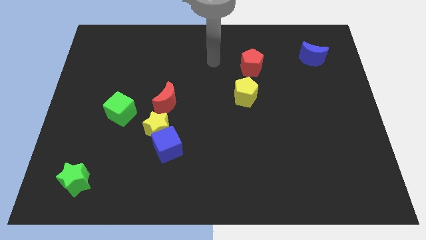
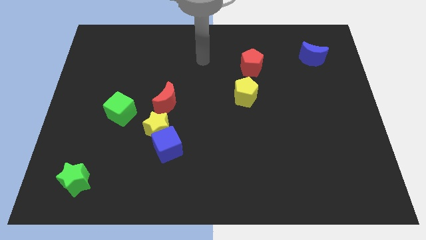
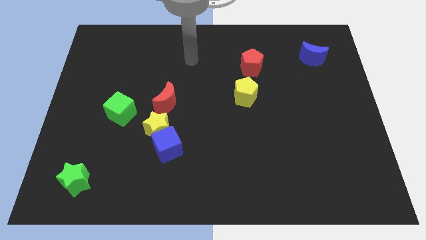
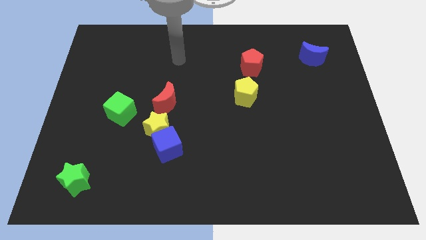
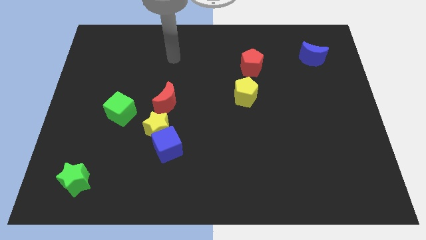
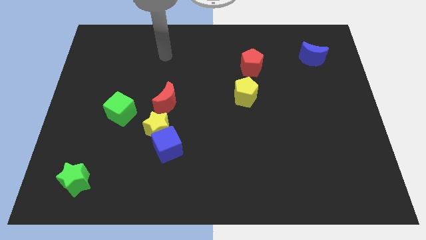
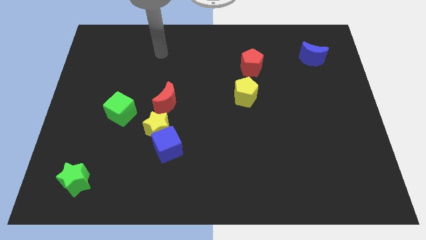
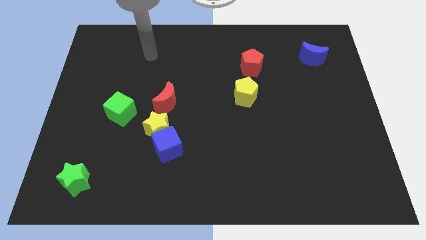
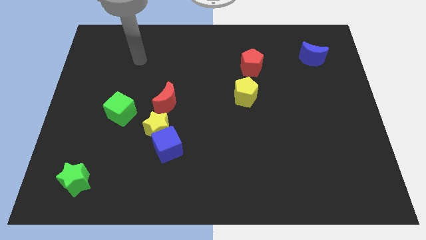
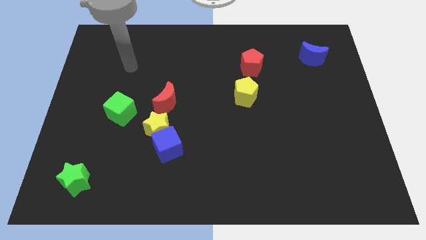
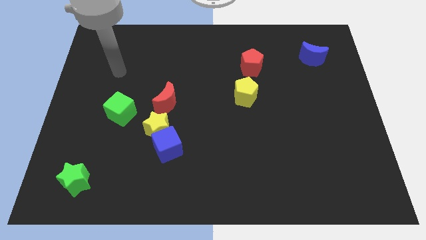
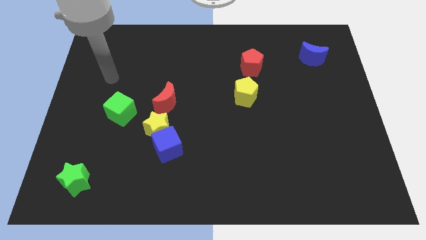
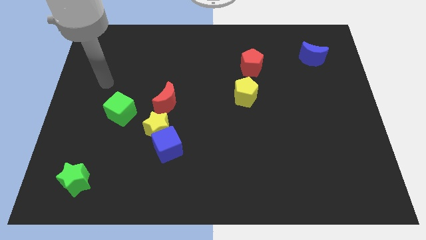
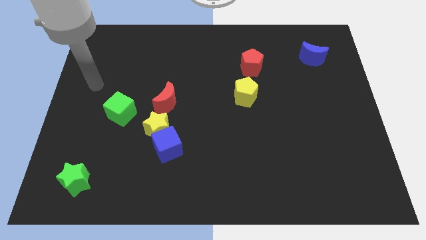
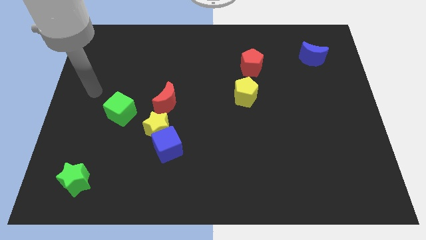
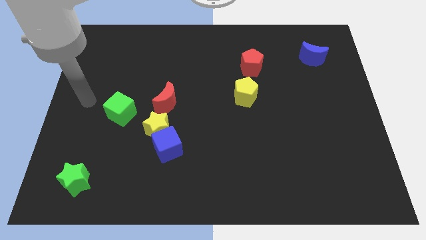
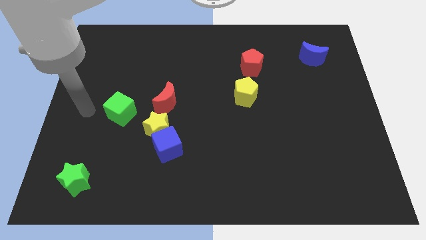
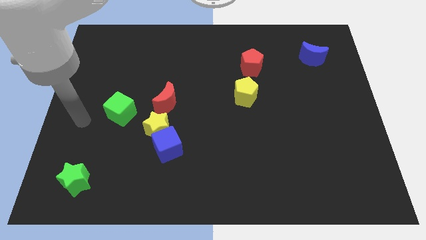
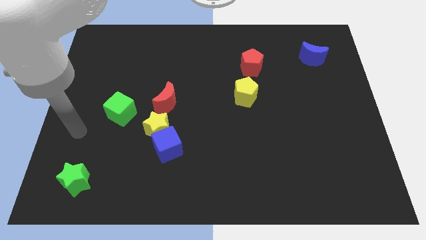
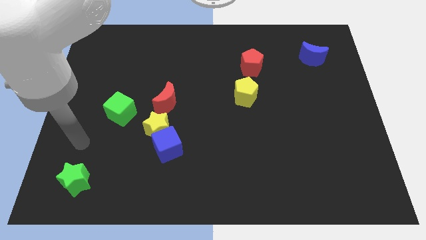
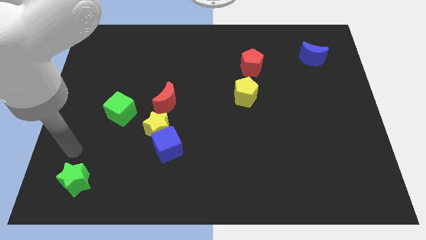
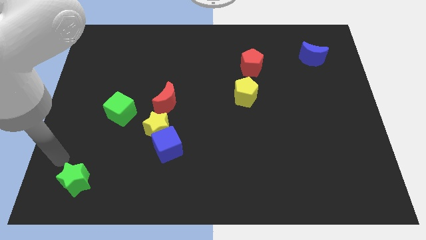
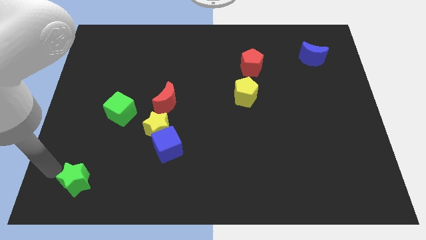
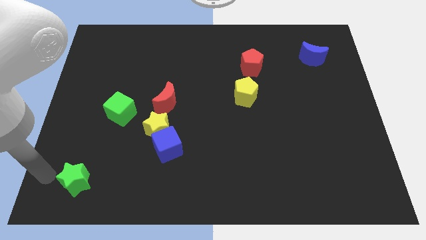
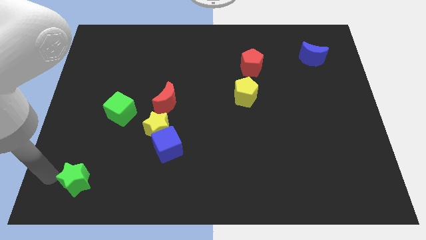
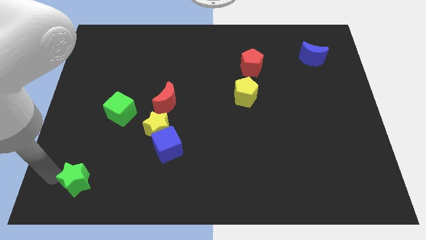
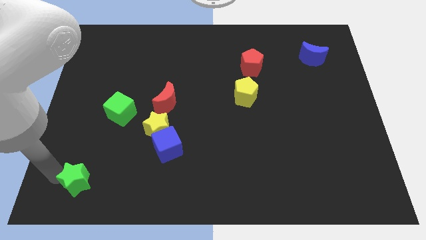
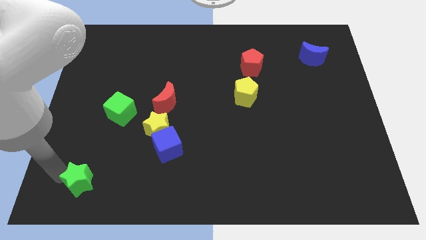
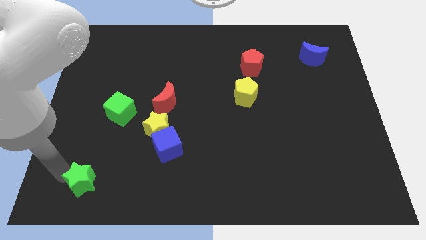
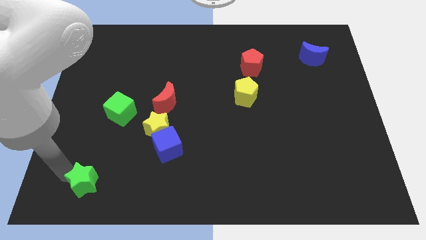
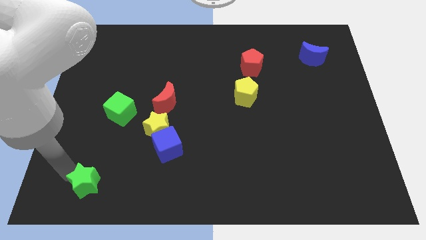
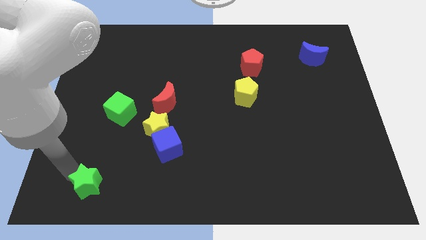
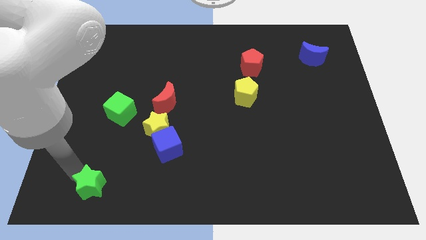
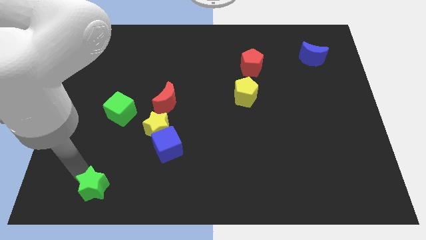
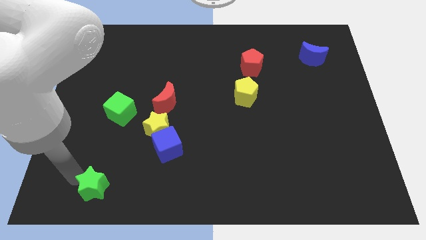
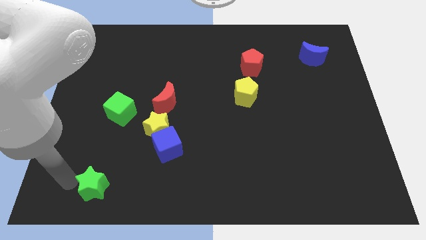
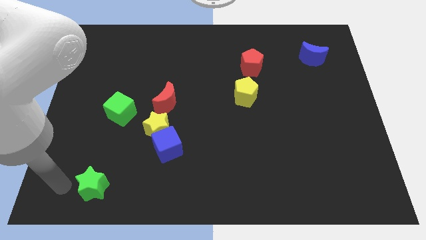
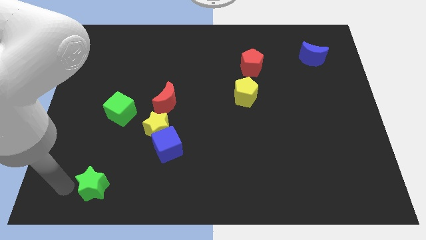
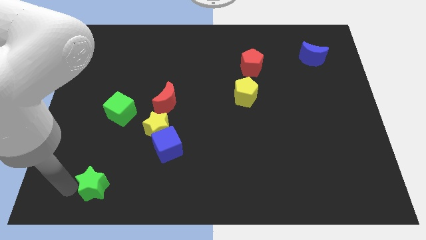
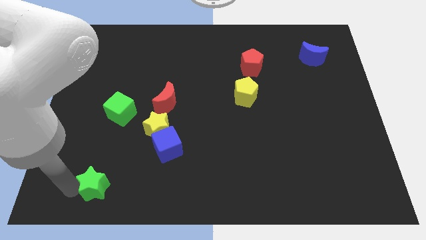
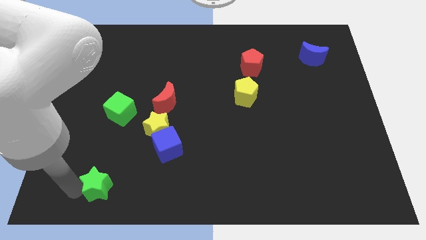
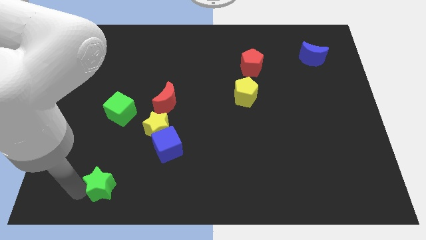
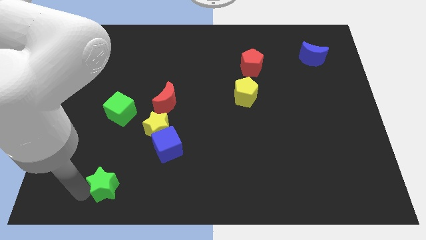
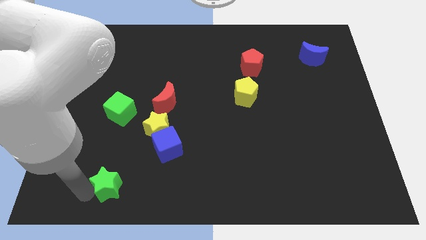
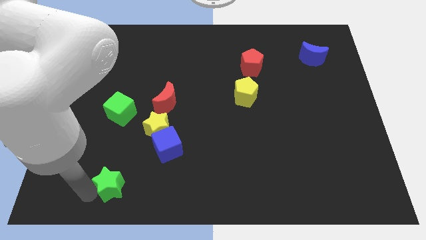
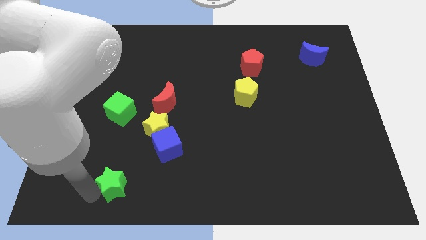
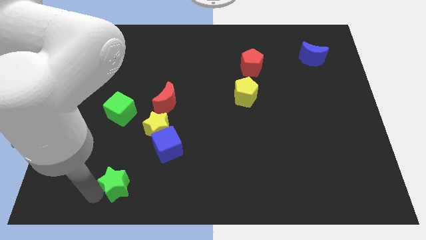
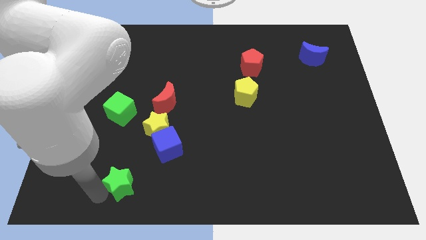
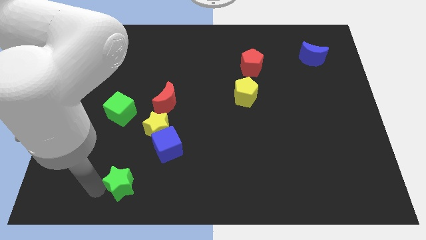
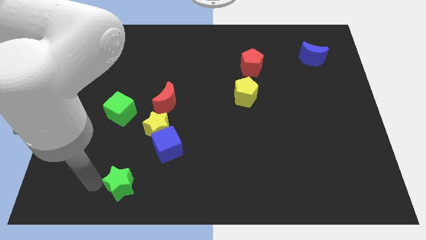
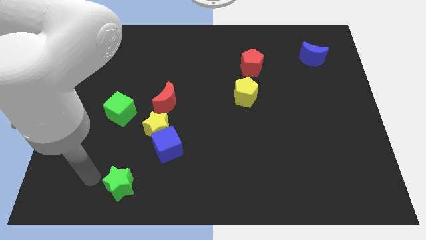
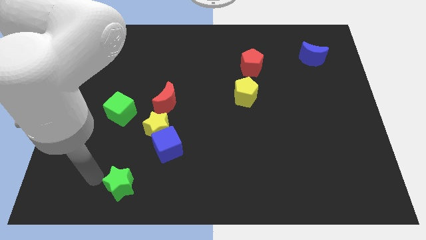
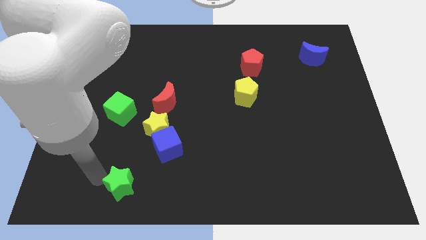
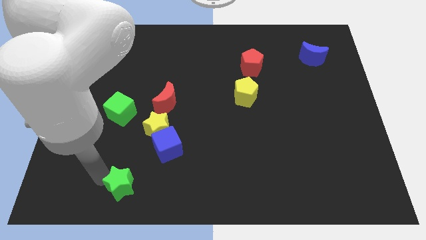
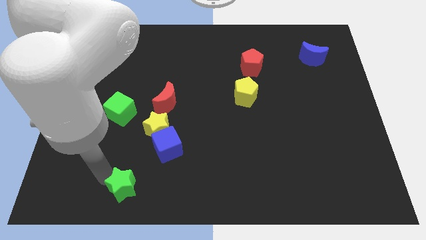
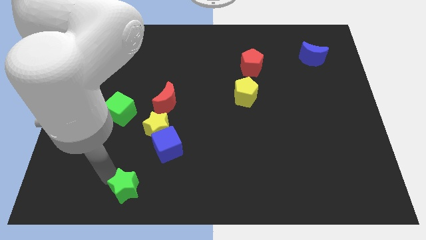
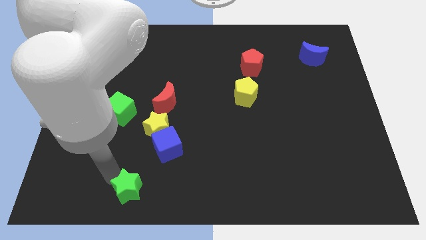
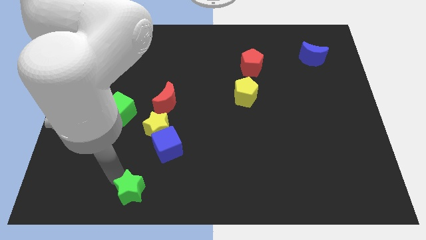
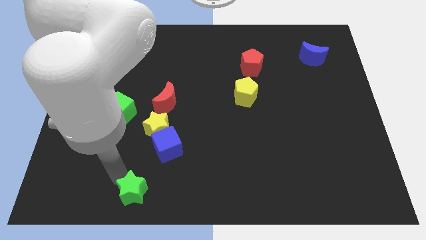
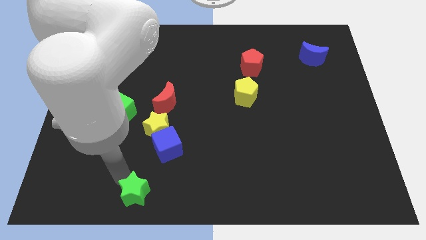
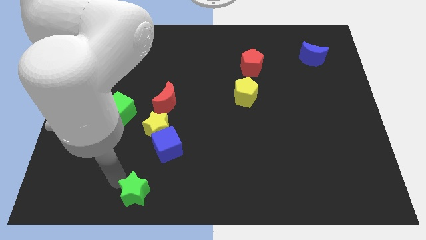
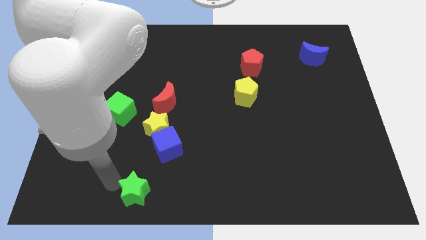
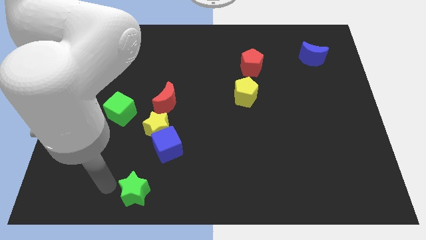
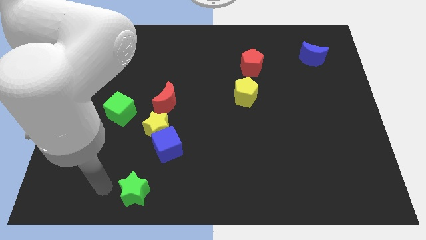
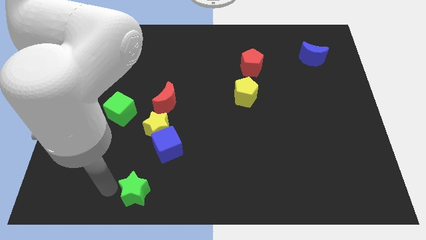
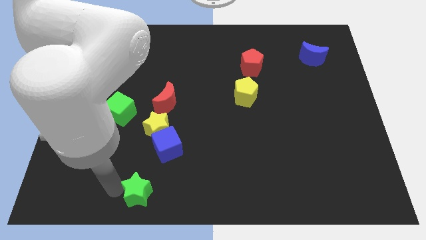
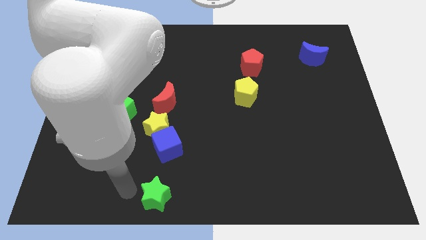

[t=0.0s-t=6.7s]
move the green star to the bottom side

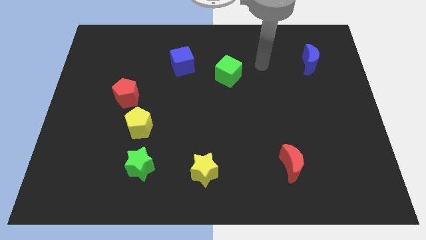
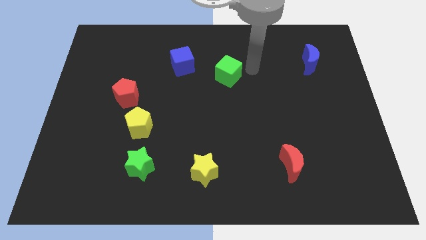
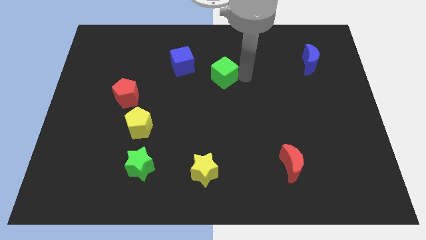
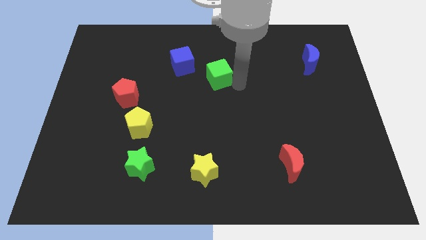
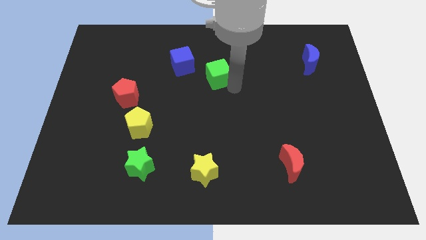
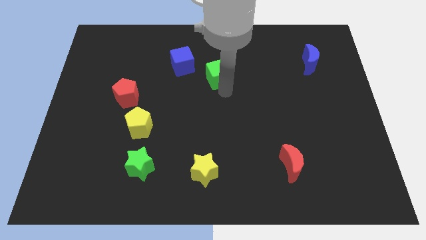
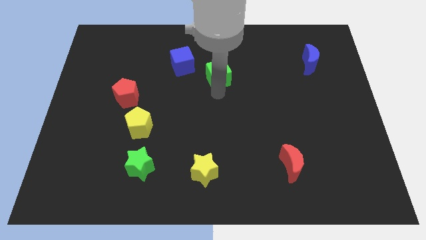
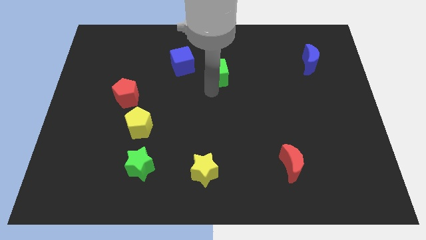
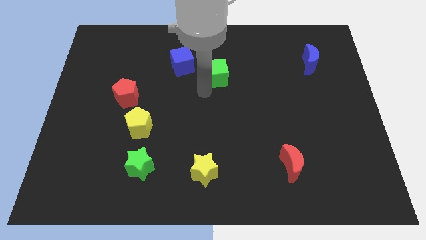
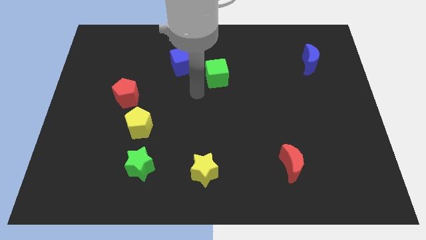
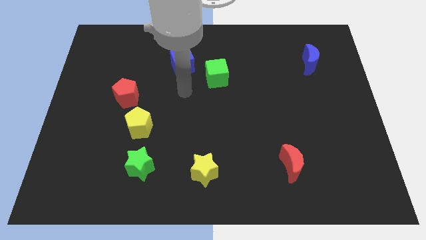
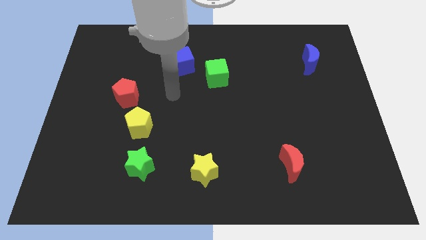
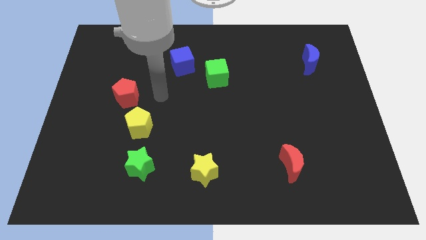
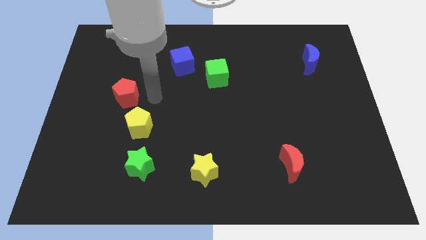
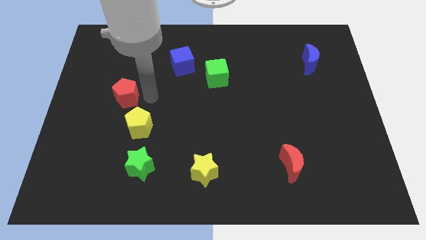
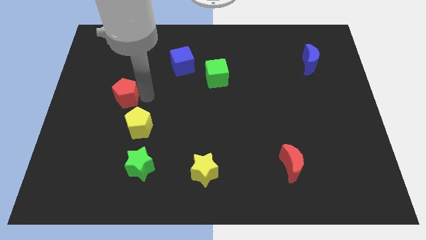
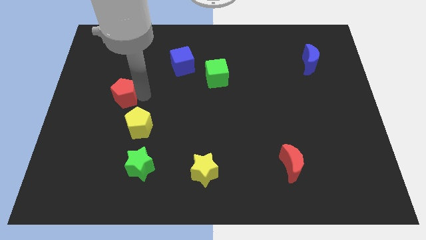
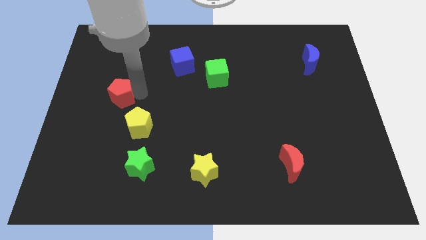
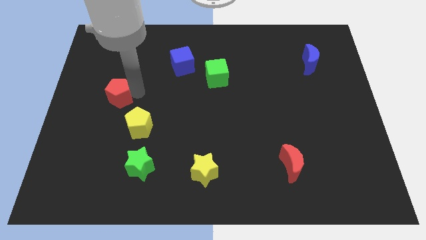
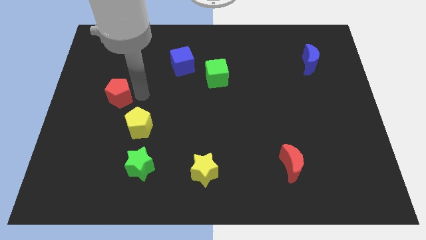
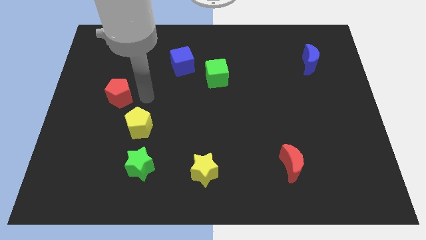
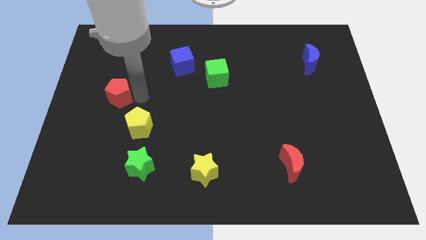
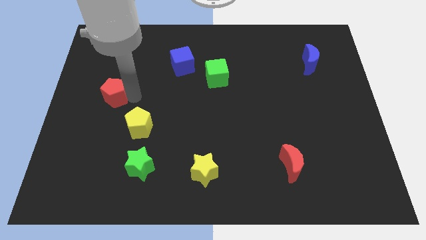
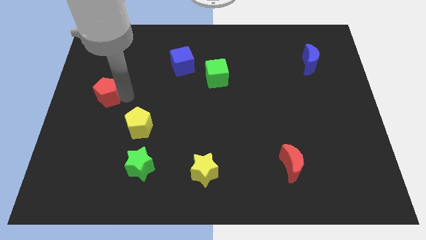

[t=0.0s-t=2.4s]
push the red pentagon to the center left
